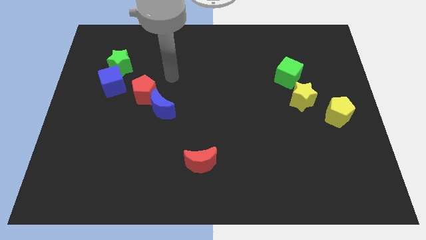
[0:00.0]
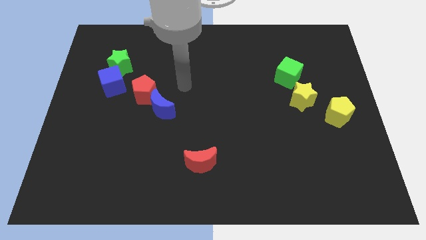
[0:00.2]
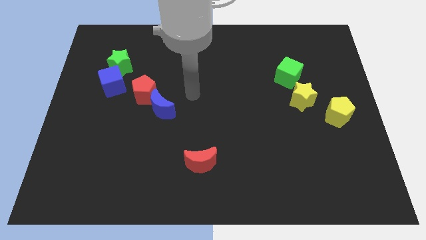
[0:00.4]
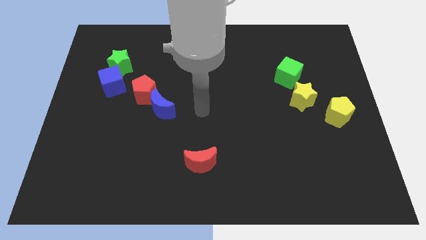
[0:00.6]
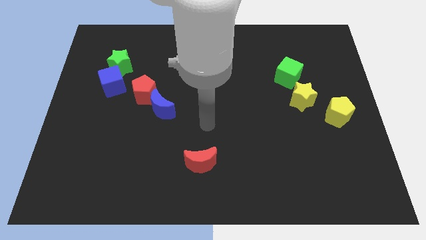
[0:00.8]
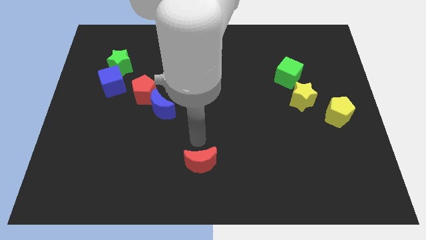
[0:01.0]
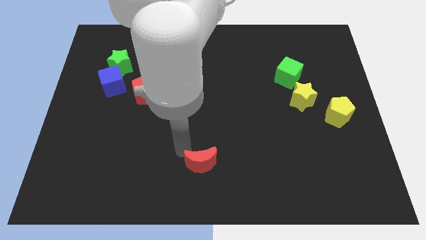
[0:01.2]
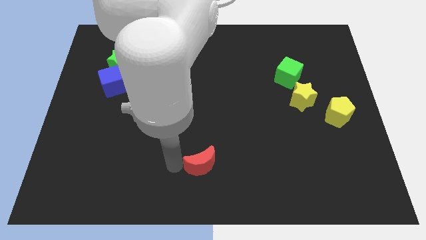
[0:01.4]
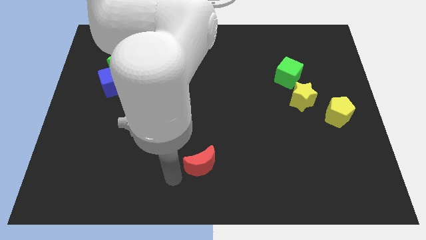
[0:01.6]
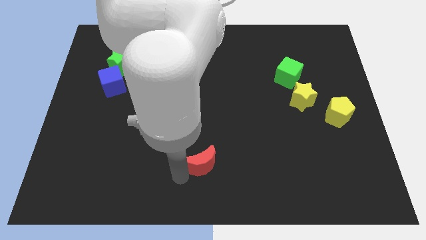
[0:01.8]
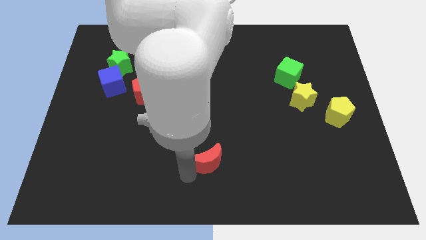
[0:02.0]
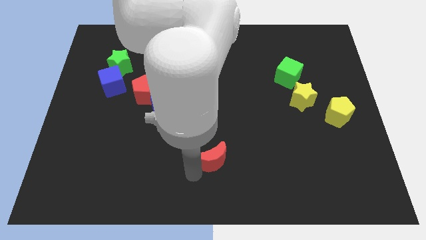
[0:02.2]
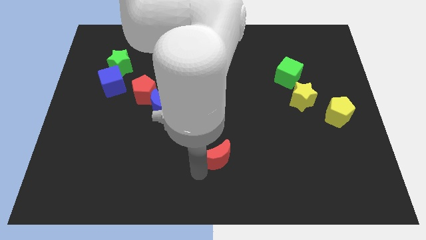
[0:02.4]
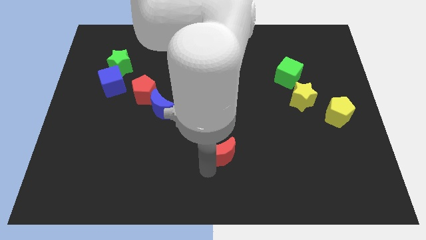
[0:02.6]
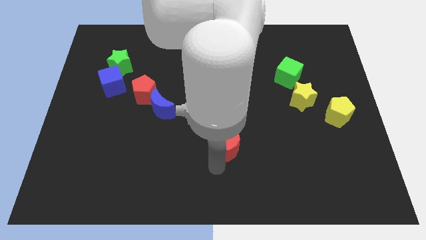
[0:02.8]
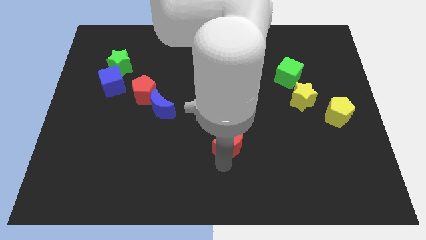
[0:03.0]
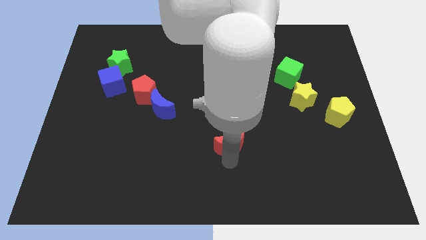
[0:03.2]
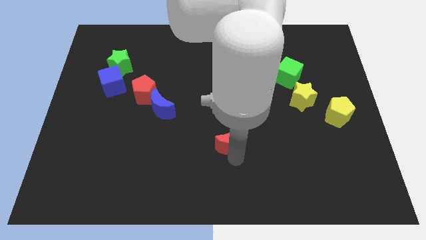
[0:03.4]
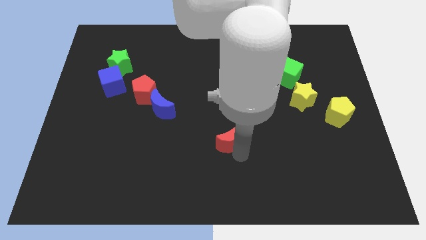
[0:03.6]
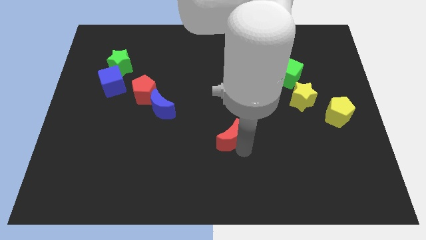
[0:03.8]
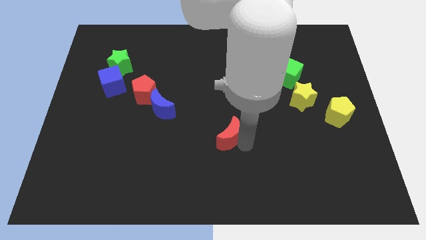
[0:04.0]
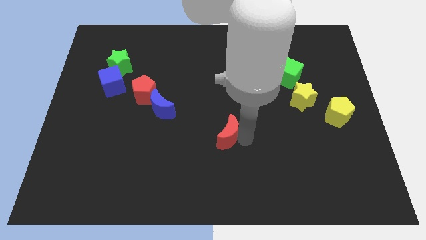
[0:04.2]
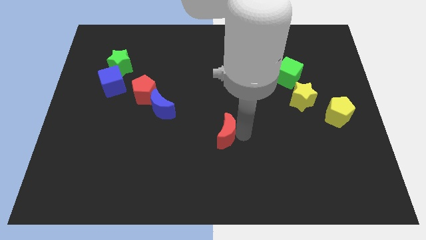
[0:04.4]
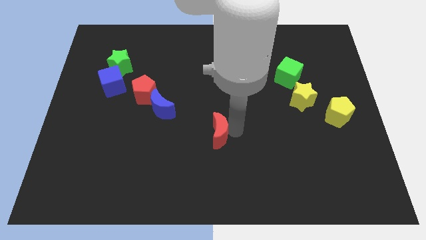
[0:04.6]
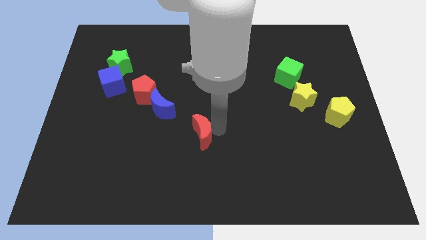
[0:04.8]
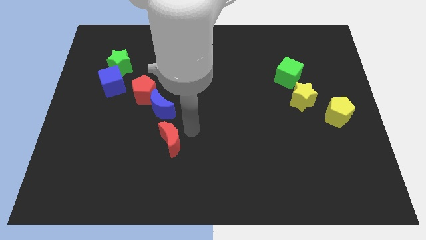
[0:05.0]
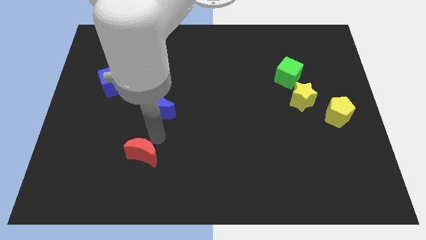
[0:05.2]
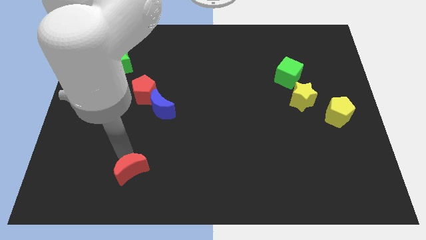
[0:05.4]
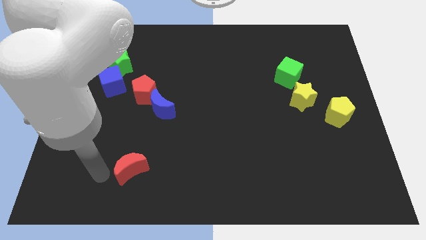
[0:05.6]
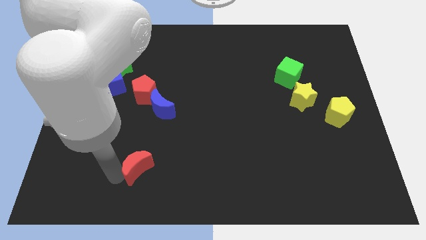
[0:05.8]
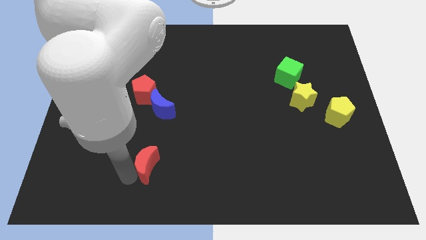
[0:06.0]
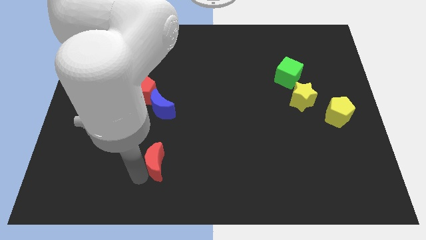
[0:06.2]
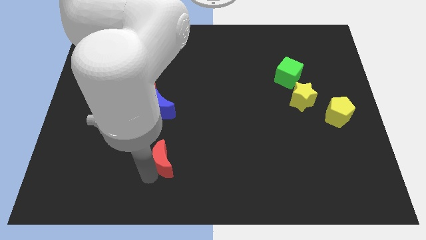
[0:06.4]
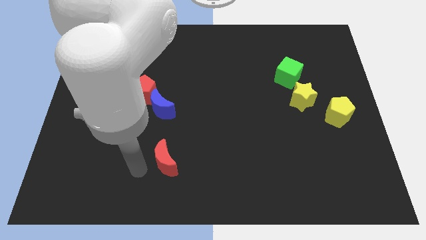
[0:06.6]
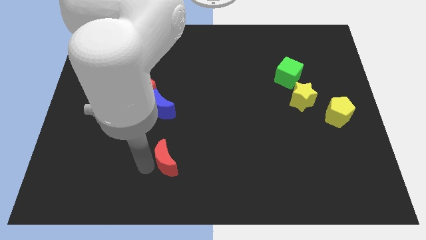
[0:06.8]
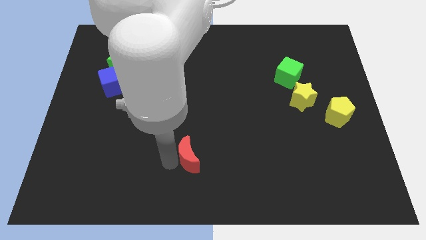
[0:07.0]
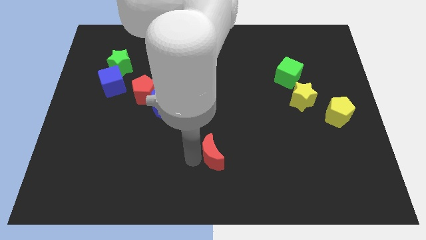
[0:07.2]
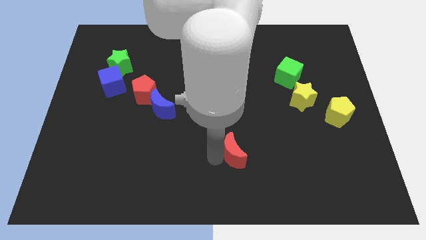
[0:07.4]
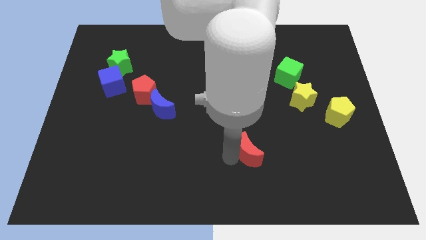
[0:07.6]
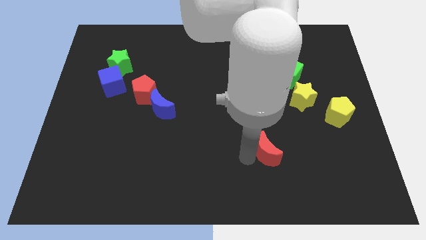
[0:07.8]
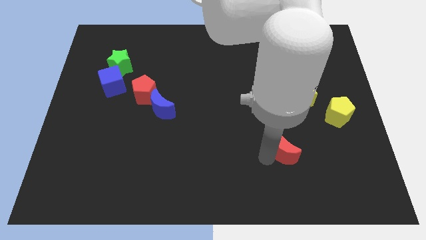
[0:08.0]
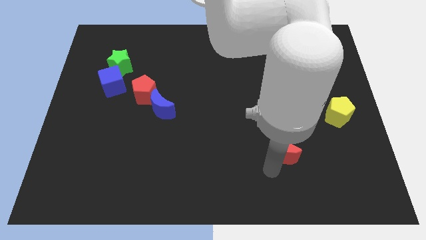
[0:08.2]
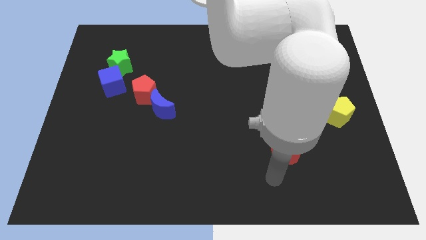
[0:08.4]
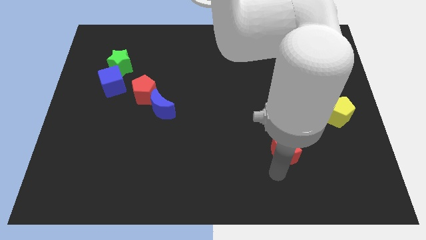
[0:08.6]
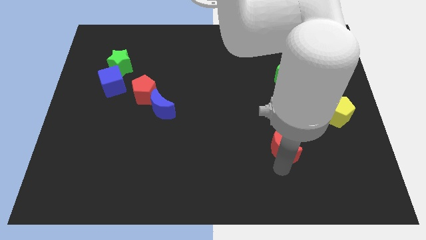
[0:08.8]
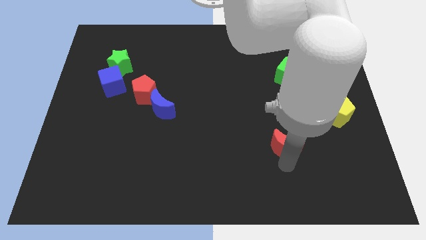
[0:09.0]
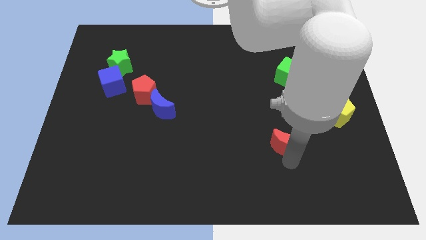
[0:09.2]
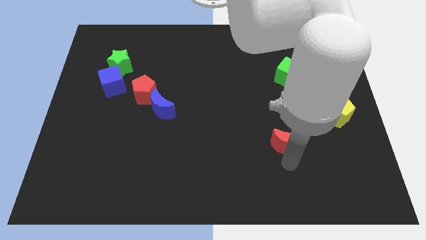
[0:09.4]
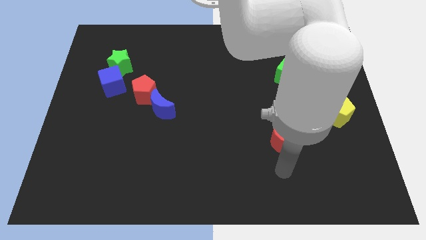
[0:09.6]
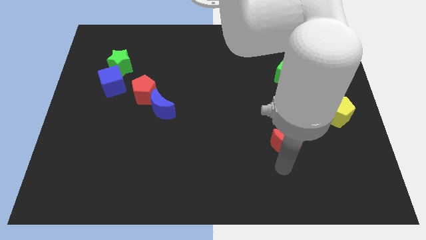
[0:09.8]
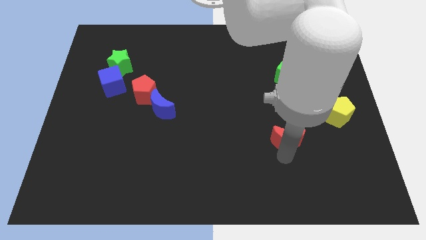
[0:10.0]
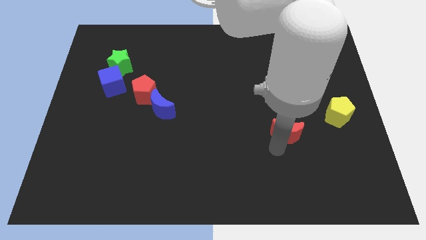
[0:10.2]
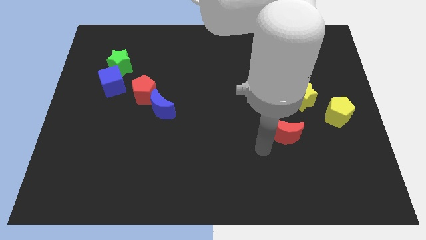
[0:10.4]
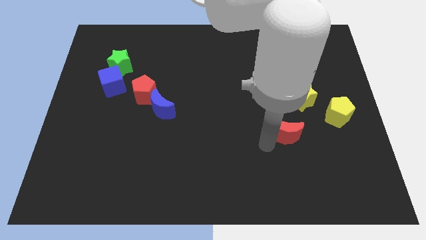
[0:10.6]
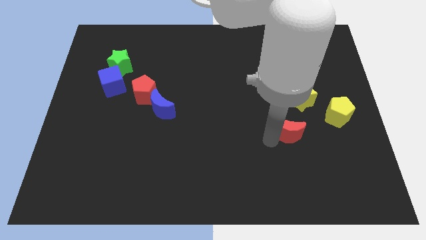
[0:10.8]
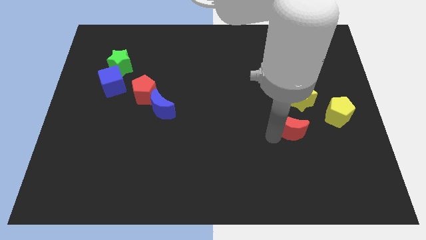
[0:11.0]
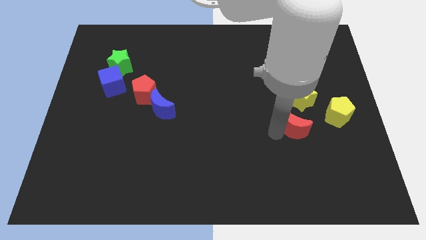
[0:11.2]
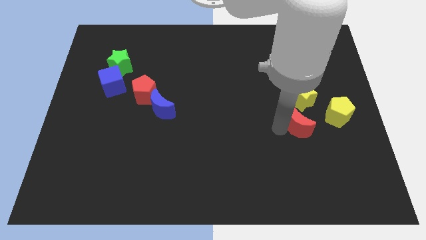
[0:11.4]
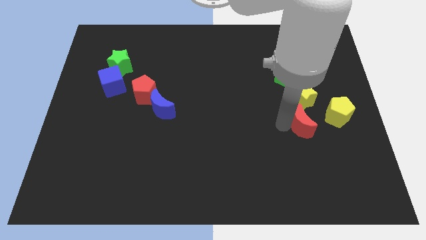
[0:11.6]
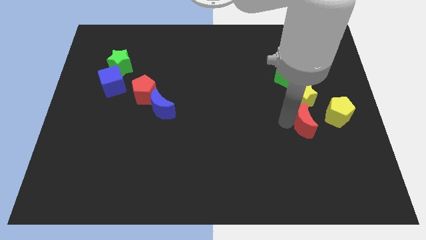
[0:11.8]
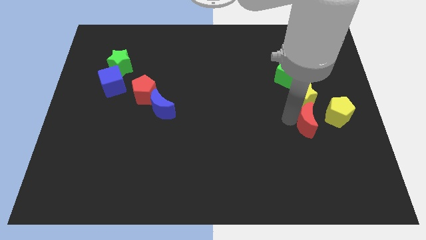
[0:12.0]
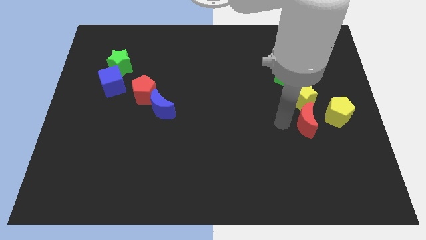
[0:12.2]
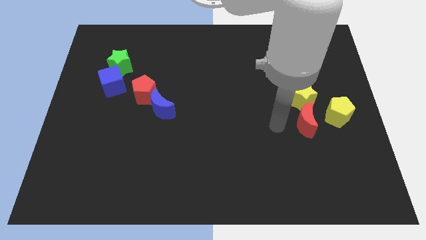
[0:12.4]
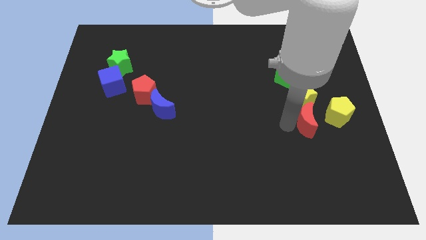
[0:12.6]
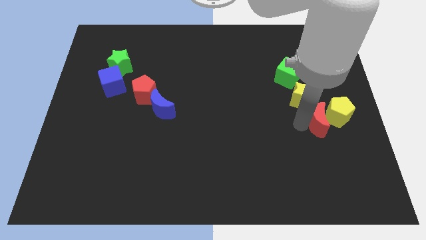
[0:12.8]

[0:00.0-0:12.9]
put the red moon to the yellow pentagon

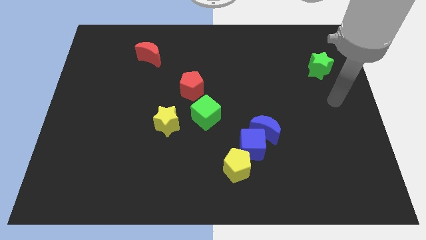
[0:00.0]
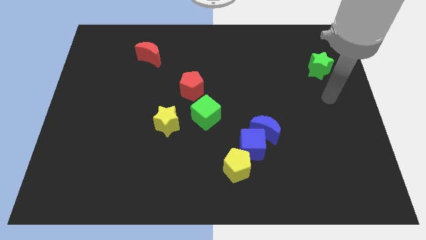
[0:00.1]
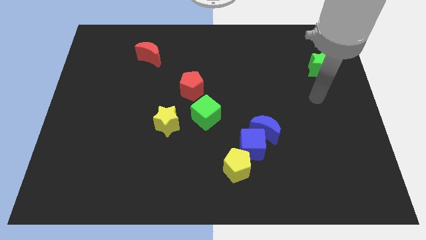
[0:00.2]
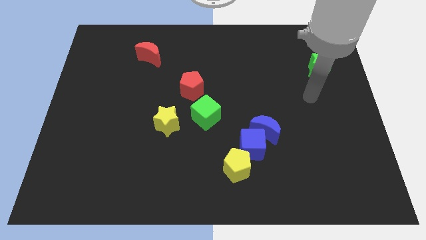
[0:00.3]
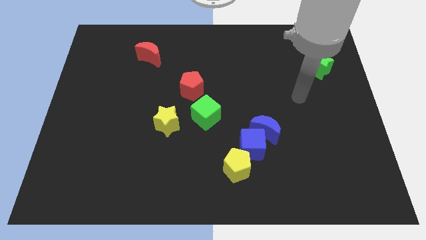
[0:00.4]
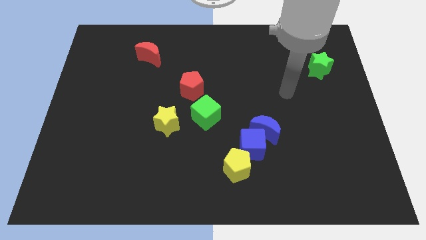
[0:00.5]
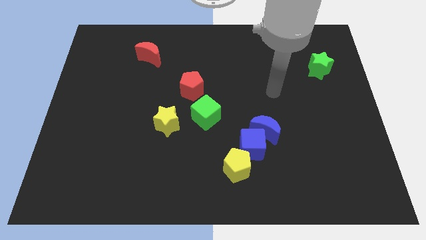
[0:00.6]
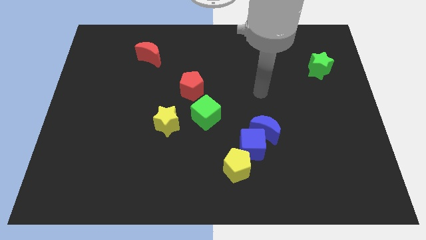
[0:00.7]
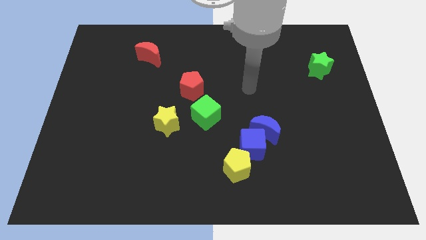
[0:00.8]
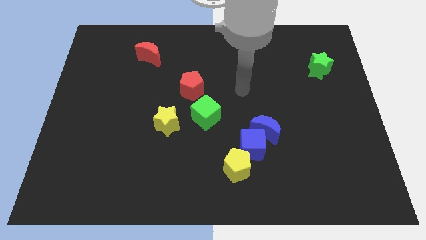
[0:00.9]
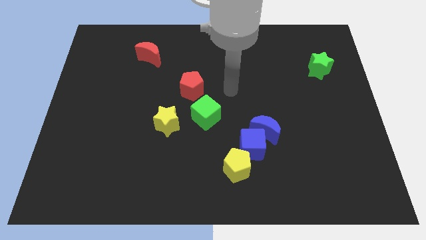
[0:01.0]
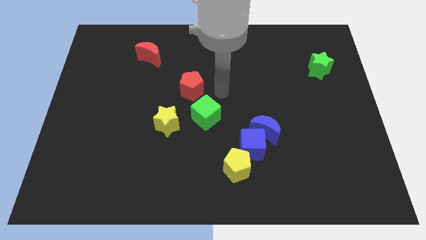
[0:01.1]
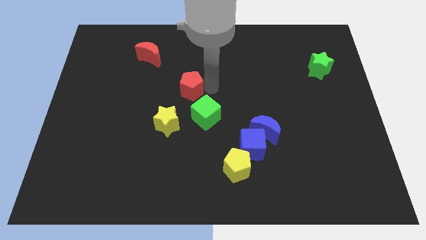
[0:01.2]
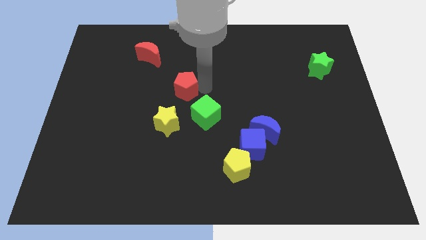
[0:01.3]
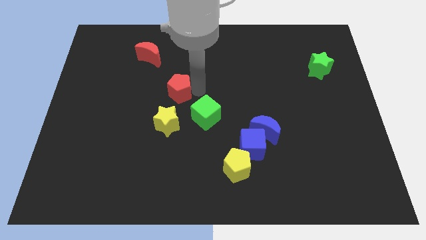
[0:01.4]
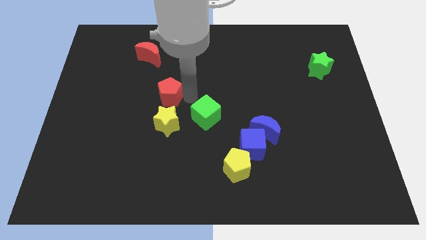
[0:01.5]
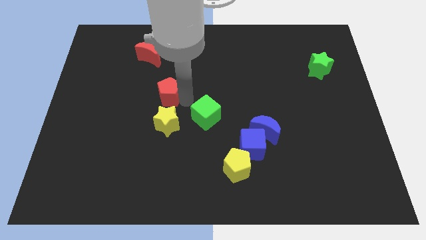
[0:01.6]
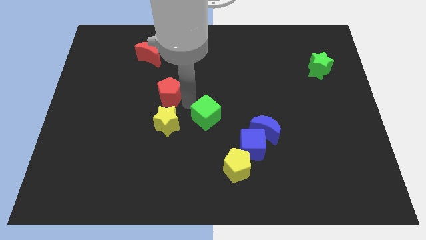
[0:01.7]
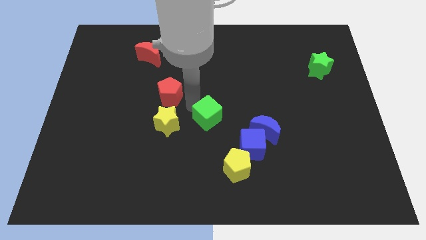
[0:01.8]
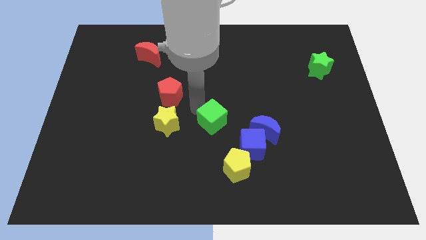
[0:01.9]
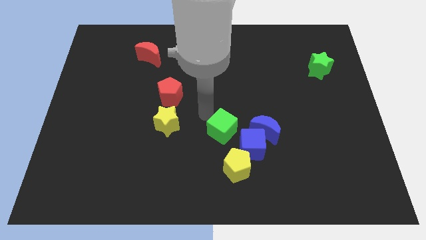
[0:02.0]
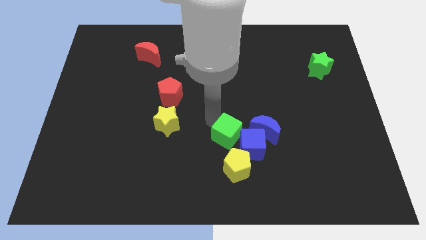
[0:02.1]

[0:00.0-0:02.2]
slide the green cube to the blue cube
